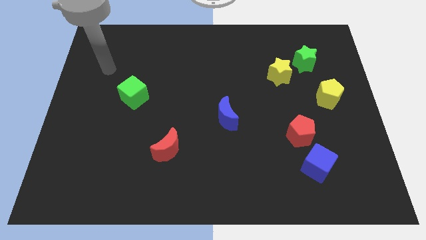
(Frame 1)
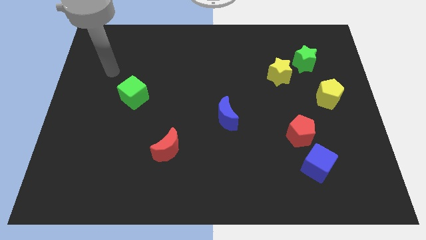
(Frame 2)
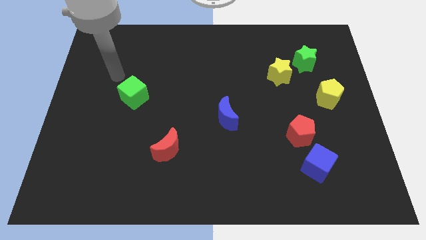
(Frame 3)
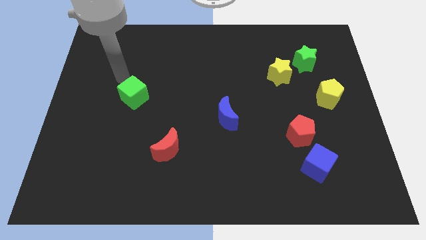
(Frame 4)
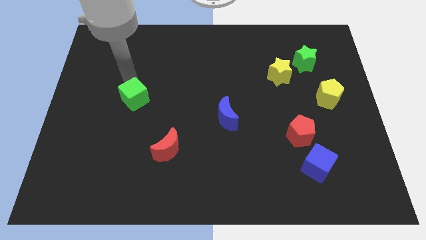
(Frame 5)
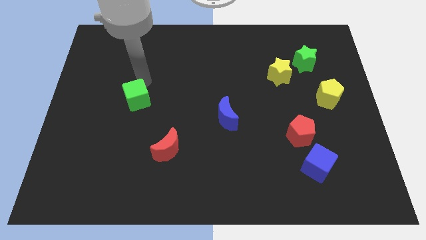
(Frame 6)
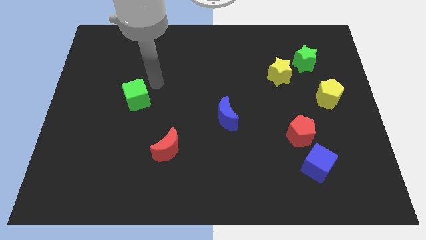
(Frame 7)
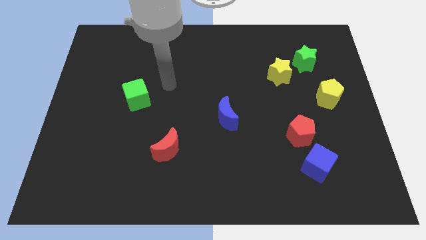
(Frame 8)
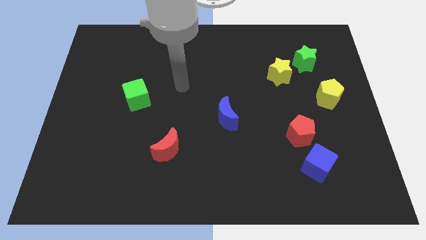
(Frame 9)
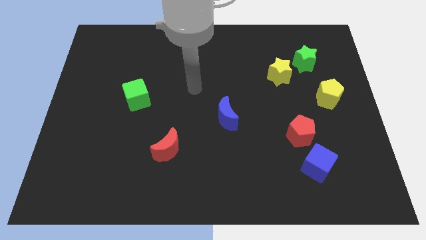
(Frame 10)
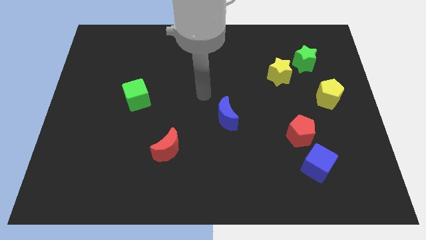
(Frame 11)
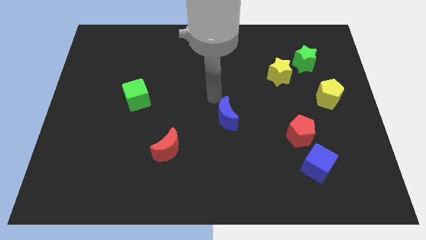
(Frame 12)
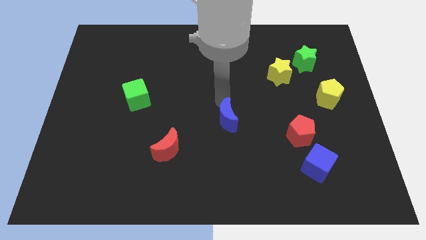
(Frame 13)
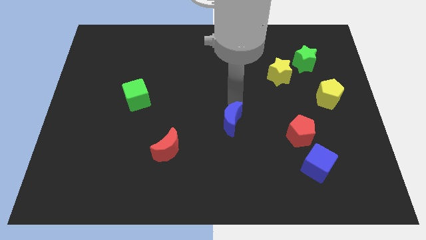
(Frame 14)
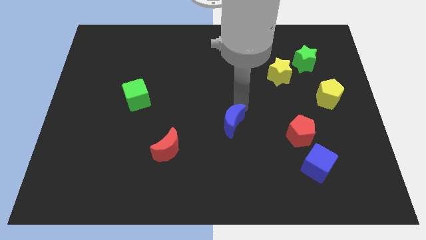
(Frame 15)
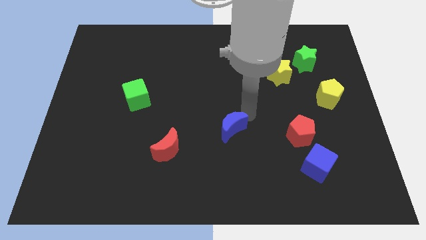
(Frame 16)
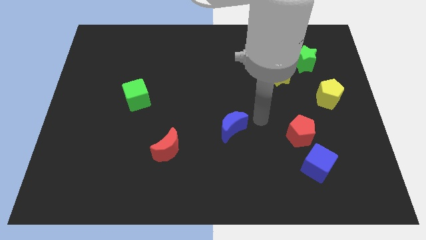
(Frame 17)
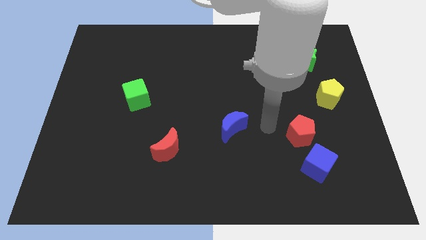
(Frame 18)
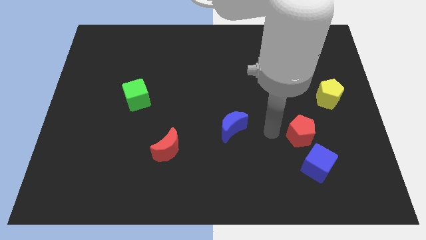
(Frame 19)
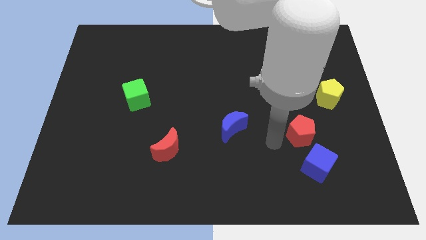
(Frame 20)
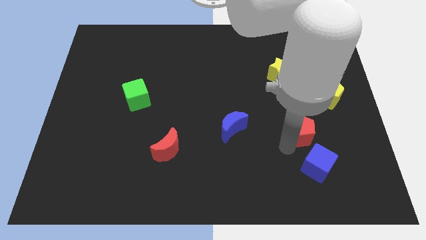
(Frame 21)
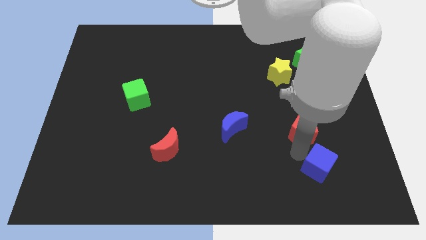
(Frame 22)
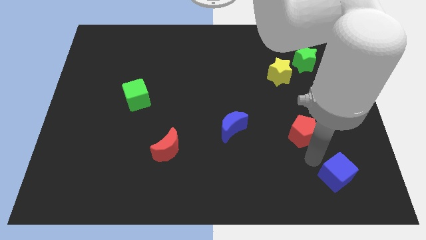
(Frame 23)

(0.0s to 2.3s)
move the red pentagon away from the blue cube

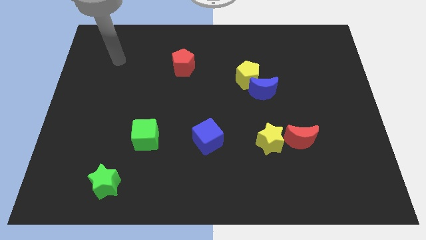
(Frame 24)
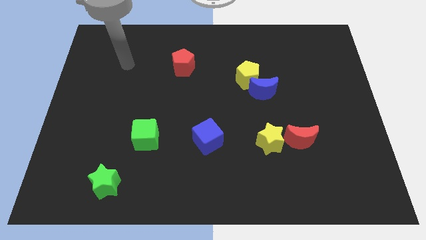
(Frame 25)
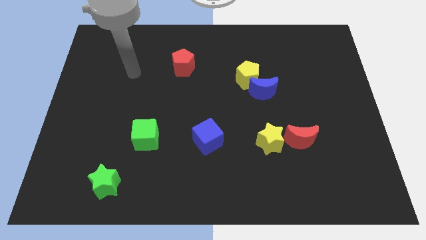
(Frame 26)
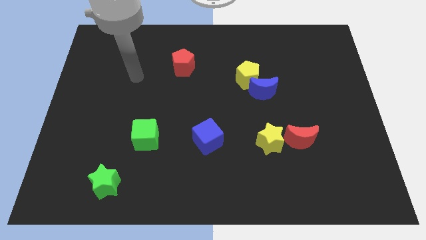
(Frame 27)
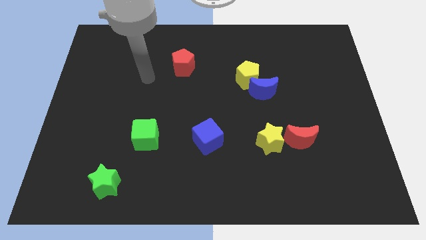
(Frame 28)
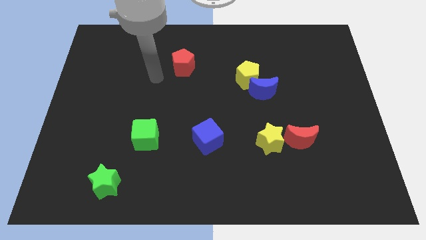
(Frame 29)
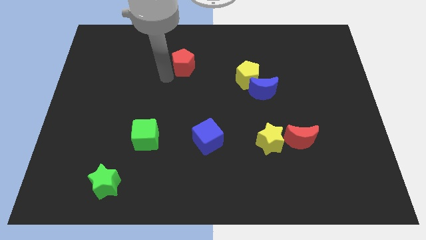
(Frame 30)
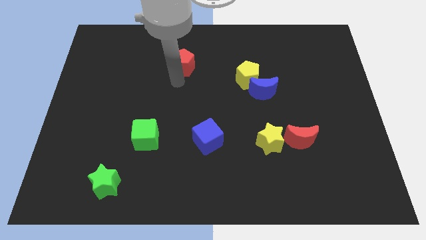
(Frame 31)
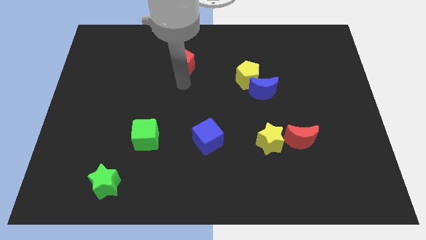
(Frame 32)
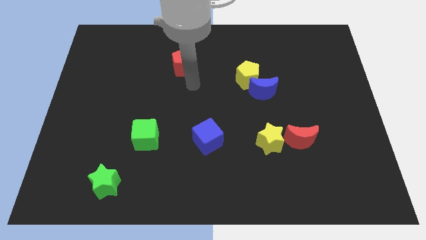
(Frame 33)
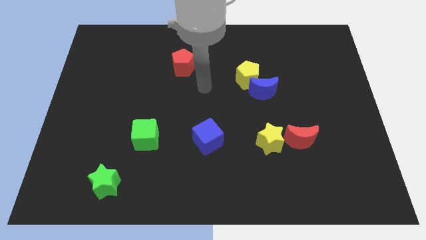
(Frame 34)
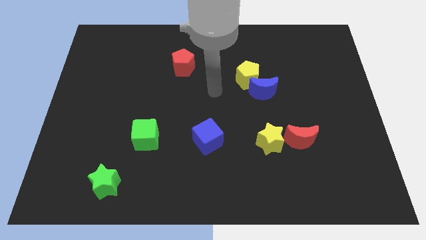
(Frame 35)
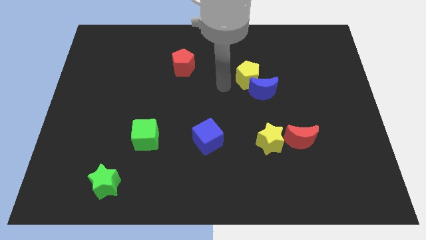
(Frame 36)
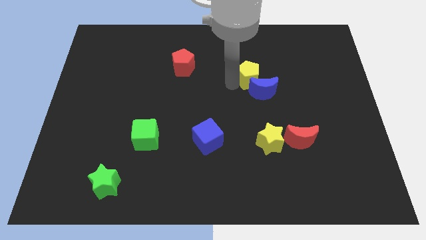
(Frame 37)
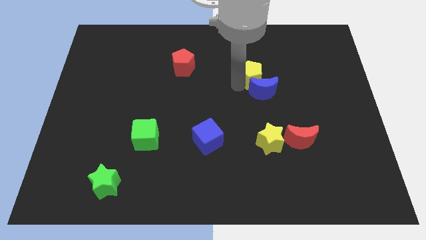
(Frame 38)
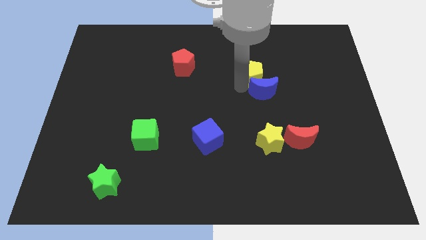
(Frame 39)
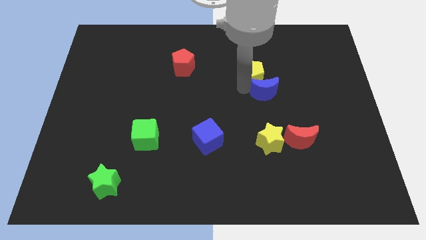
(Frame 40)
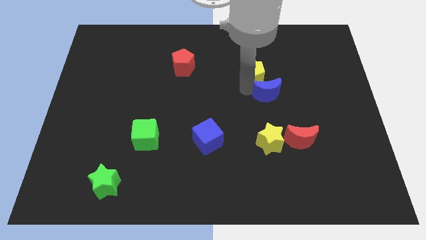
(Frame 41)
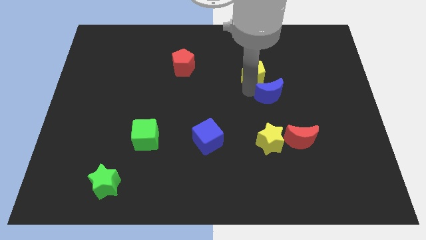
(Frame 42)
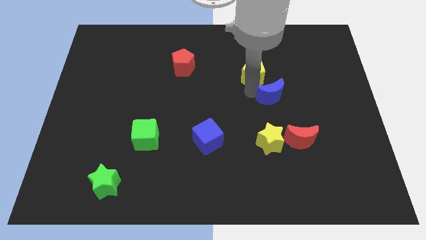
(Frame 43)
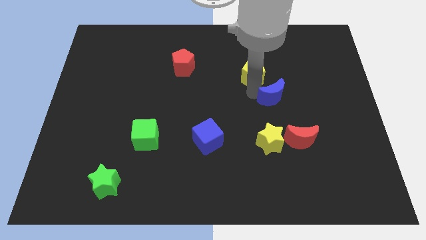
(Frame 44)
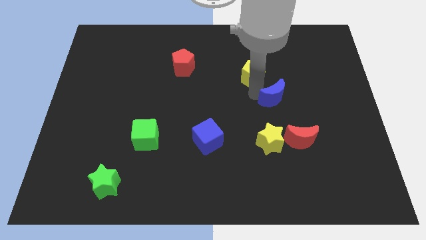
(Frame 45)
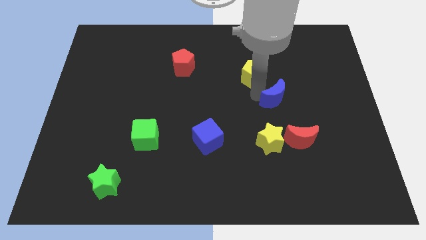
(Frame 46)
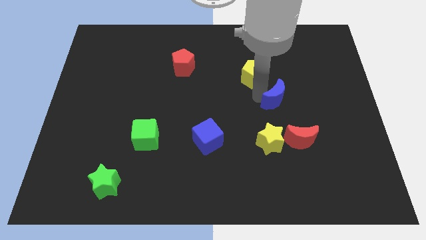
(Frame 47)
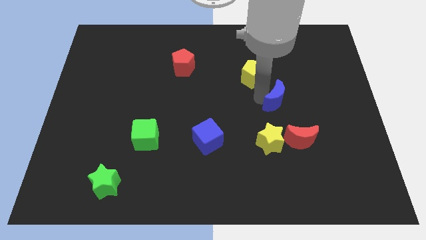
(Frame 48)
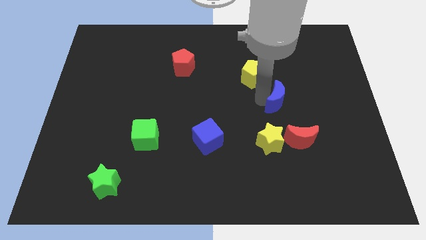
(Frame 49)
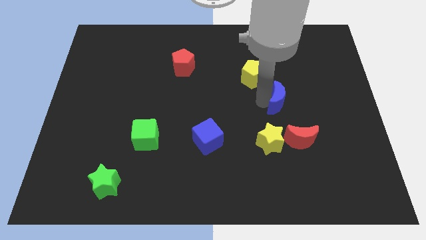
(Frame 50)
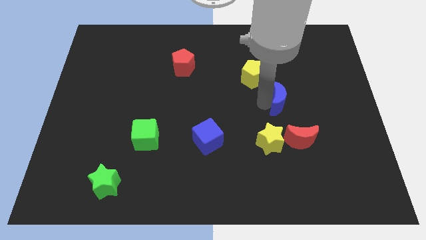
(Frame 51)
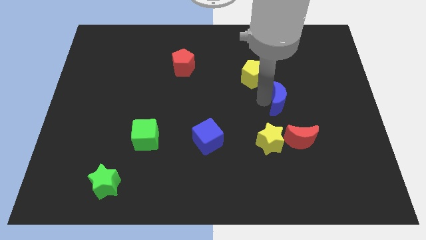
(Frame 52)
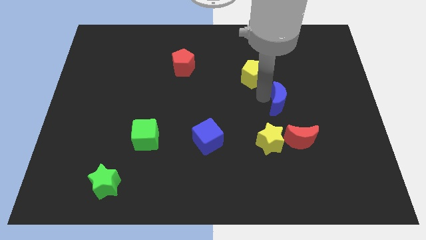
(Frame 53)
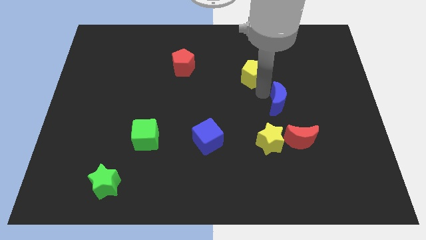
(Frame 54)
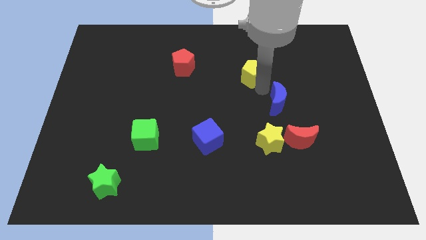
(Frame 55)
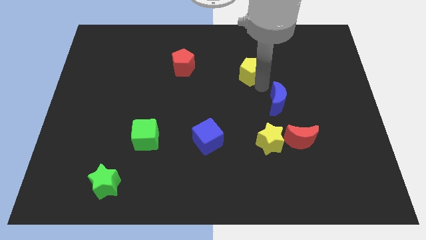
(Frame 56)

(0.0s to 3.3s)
move the blue moon away from the yellow pentagon

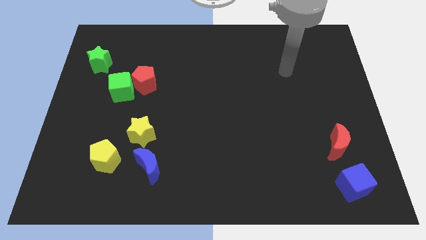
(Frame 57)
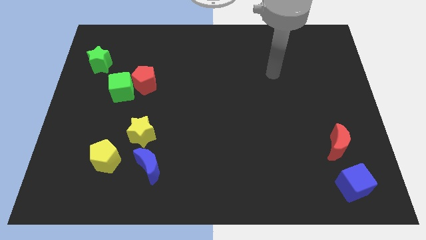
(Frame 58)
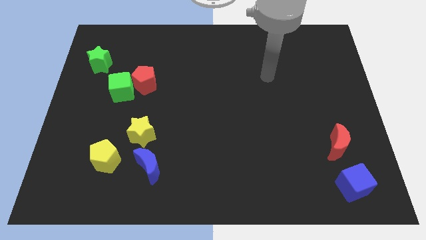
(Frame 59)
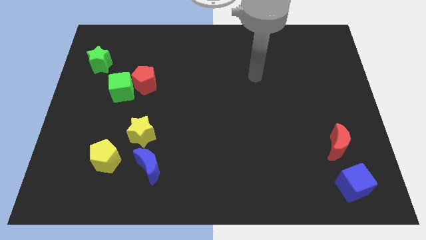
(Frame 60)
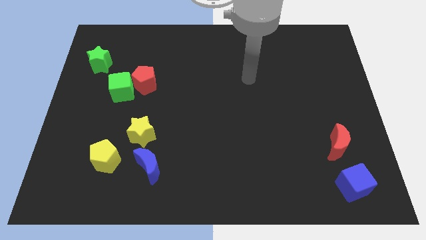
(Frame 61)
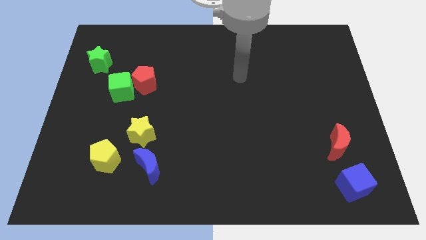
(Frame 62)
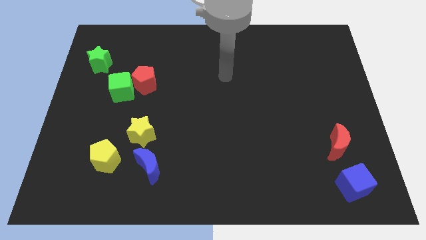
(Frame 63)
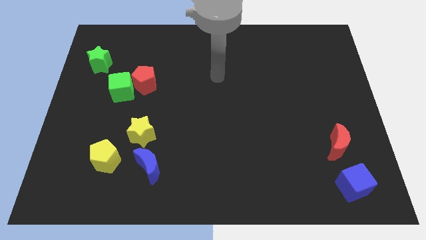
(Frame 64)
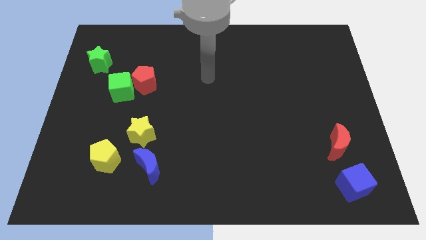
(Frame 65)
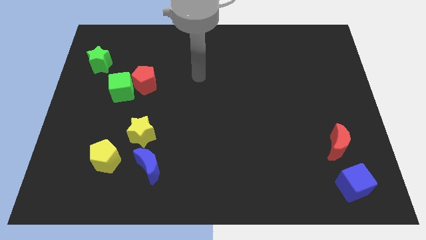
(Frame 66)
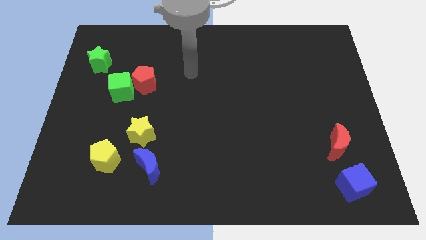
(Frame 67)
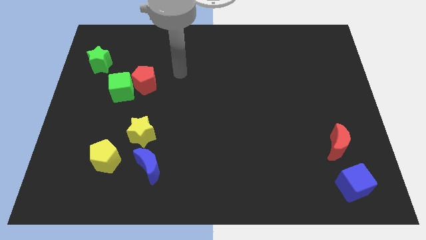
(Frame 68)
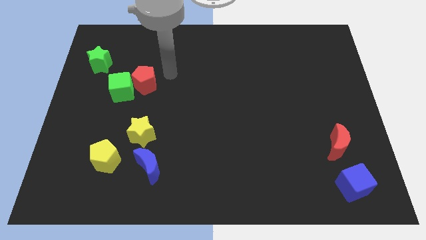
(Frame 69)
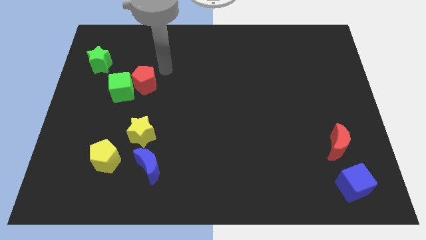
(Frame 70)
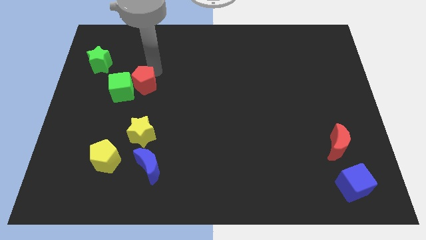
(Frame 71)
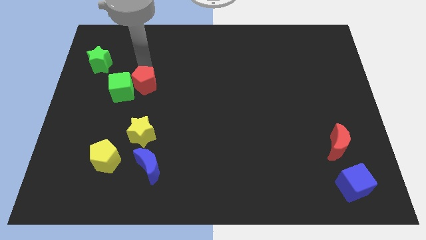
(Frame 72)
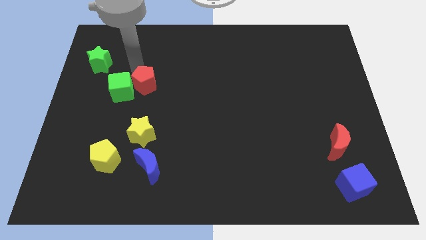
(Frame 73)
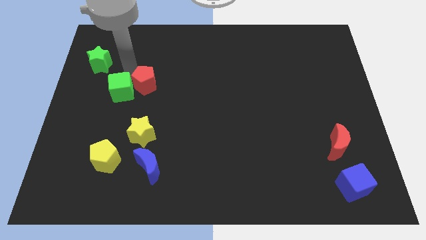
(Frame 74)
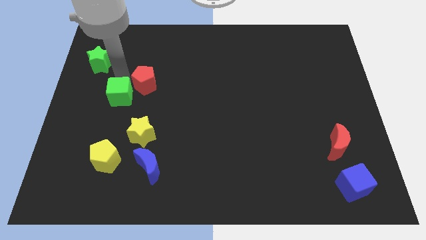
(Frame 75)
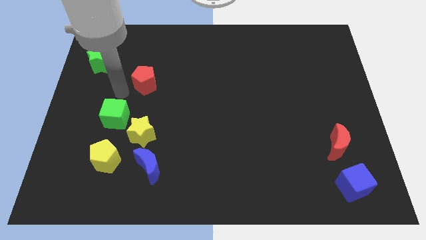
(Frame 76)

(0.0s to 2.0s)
move the red pentagon away from the green cube

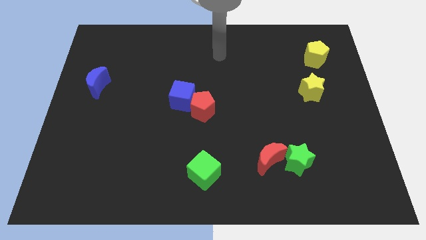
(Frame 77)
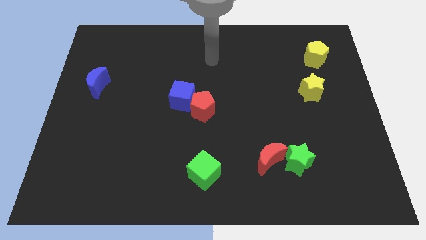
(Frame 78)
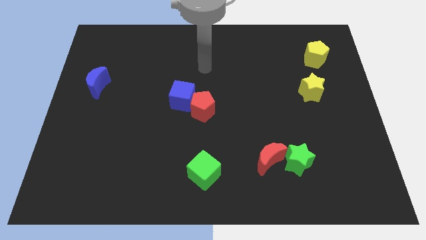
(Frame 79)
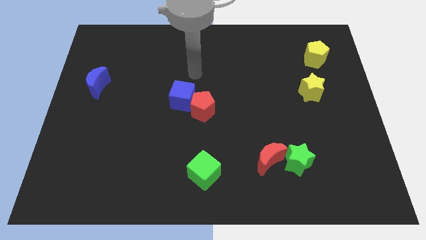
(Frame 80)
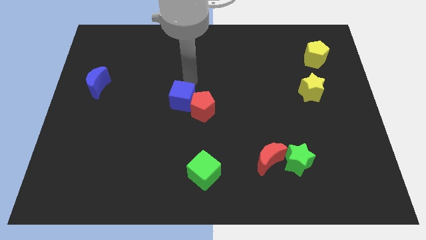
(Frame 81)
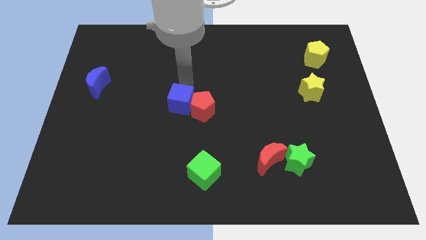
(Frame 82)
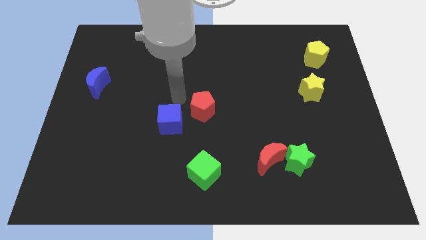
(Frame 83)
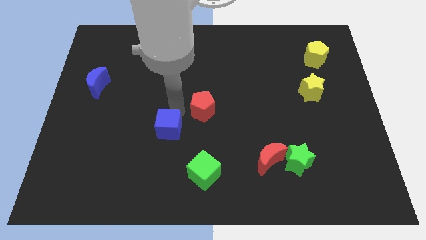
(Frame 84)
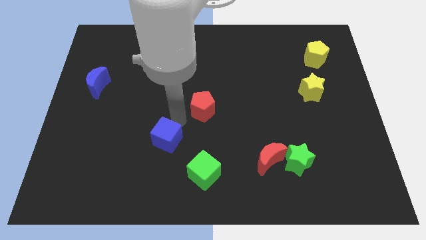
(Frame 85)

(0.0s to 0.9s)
separate the red pentagon from the blue cube

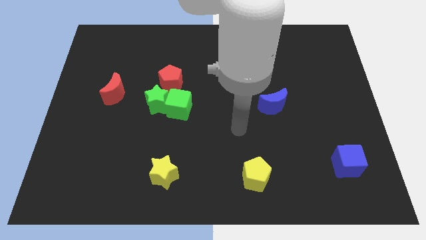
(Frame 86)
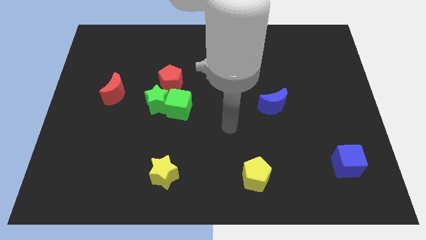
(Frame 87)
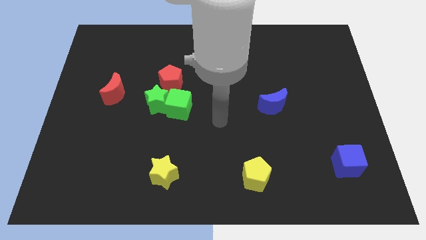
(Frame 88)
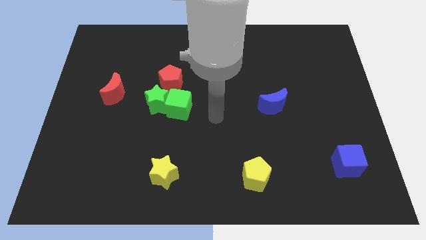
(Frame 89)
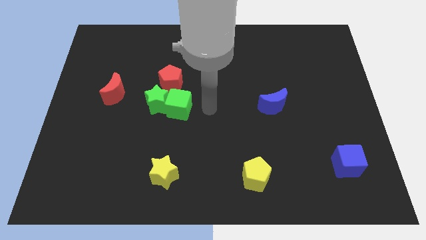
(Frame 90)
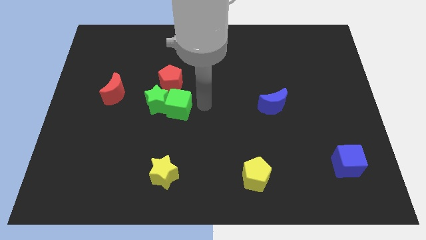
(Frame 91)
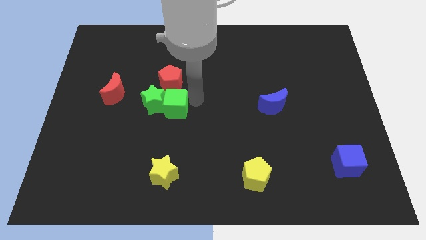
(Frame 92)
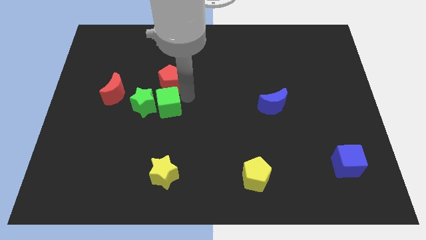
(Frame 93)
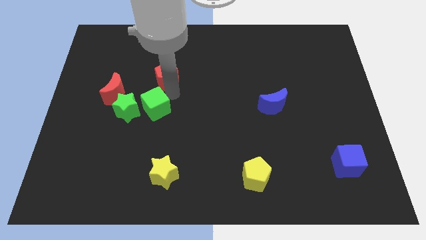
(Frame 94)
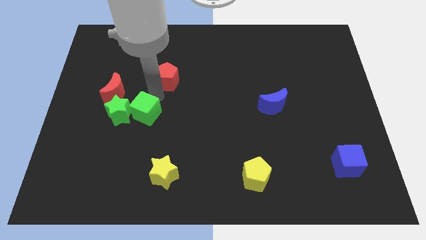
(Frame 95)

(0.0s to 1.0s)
pull the green star apart from the green cube and red pentagon
